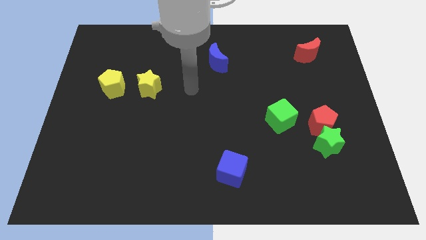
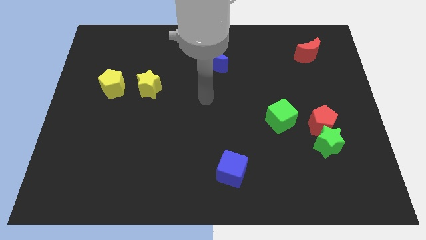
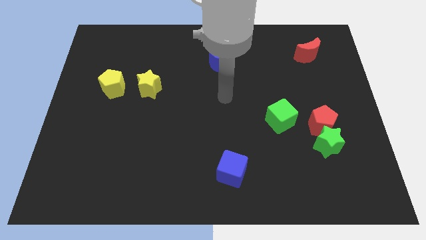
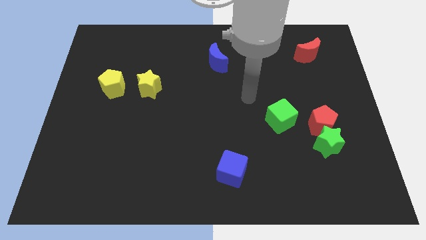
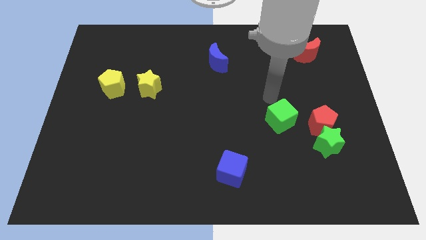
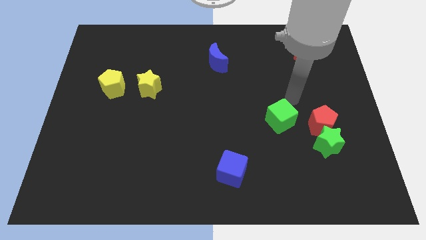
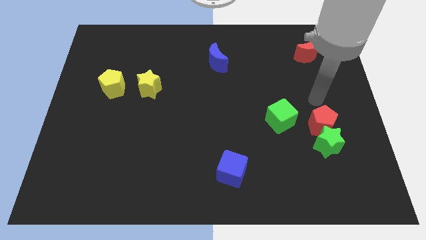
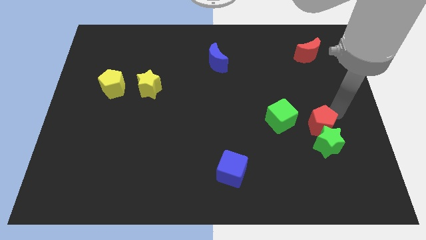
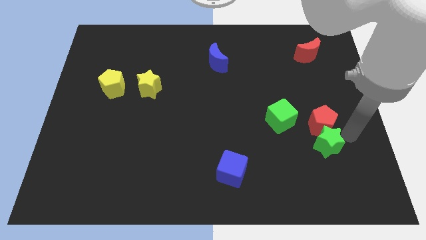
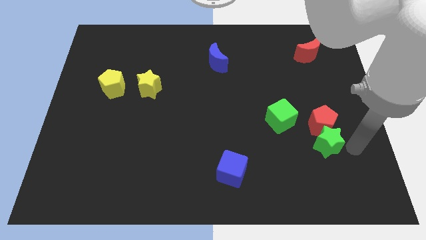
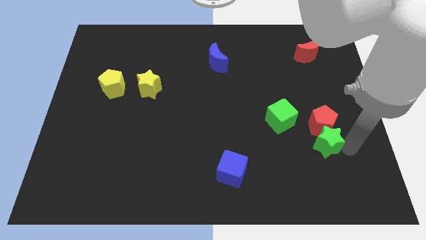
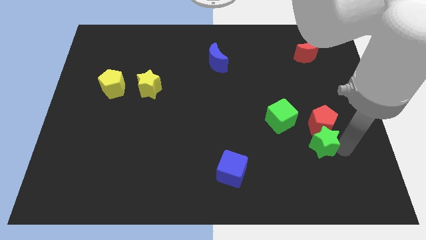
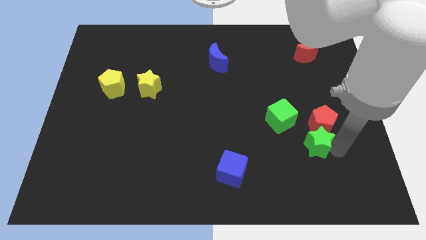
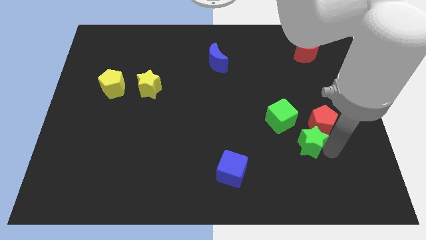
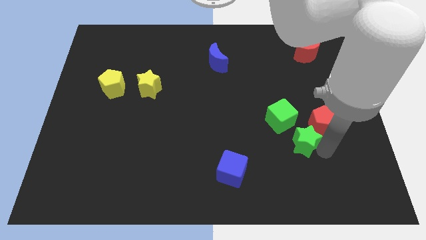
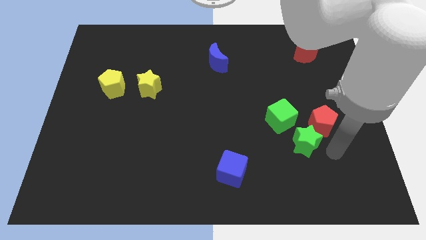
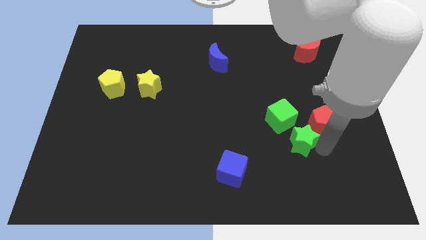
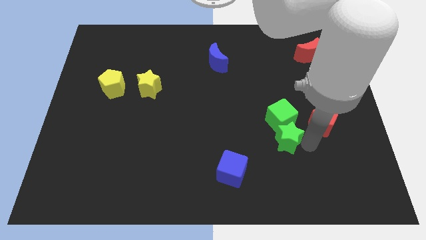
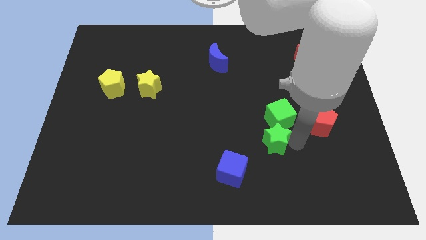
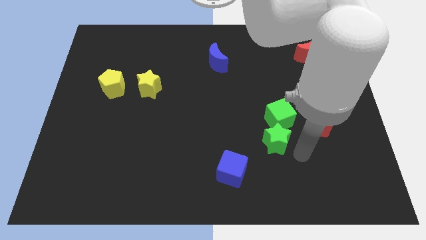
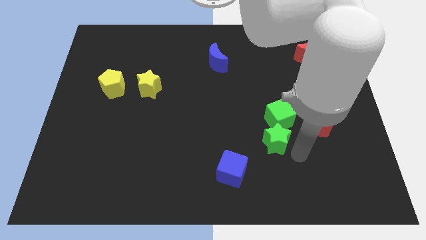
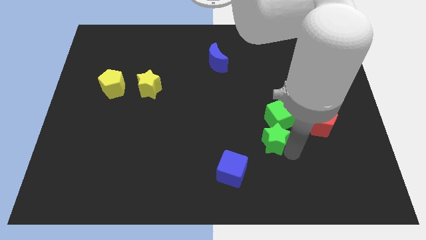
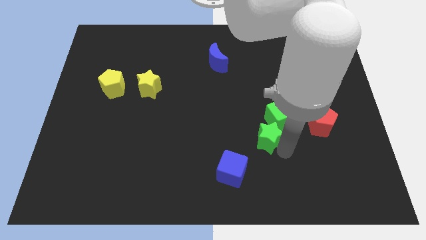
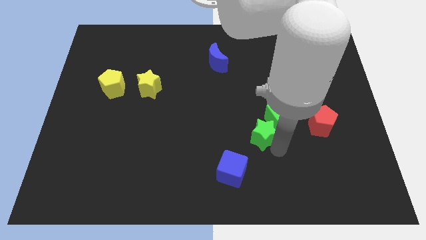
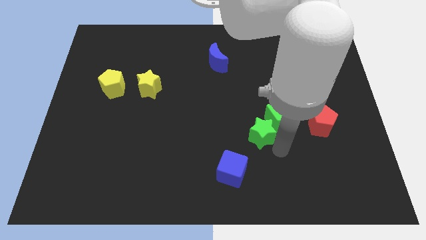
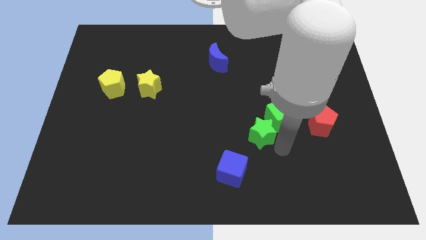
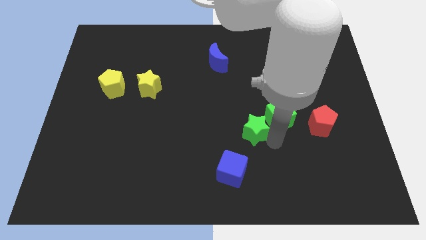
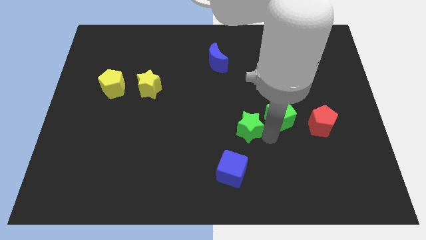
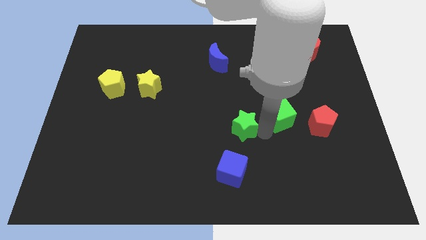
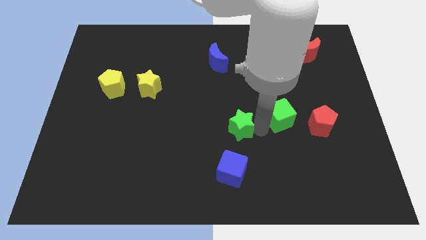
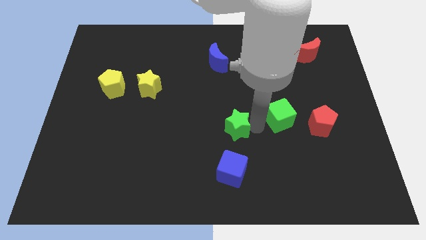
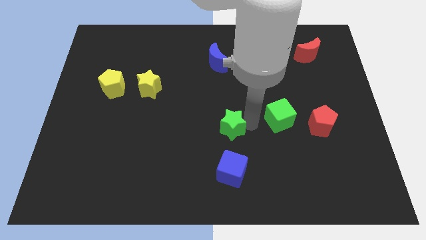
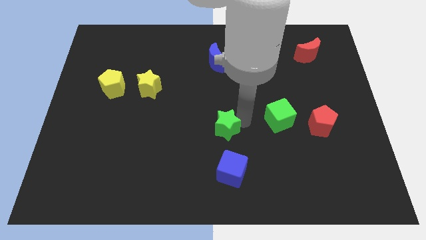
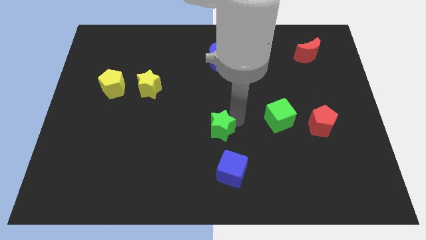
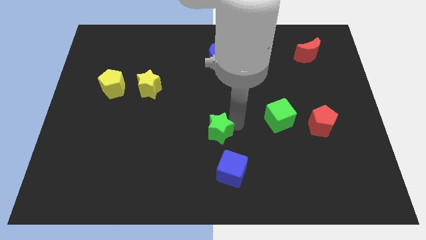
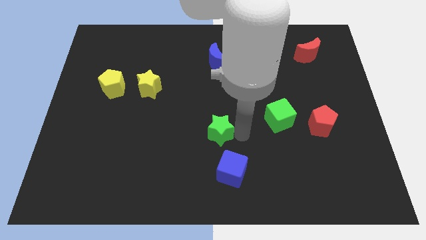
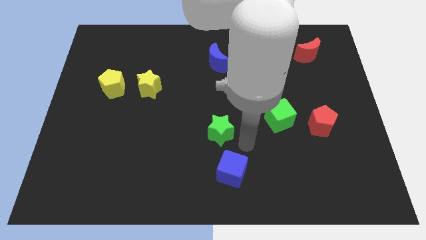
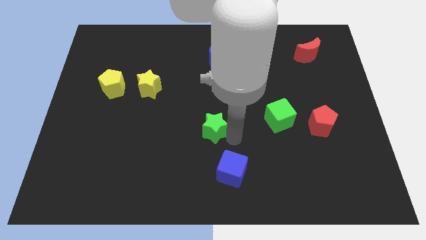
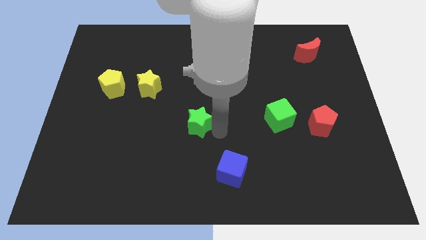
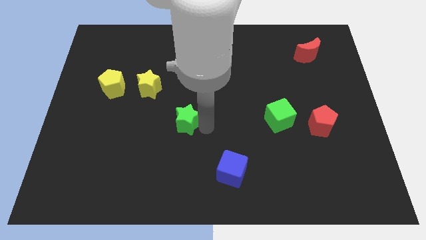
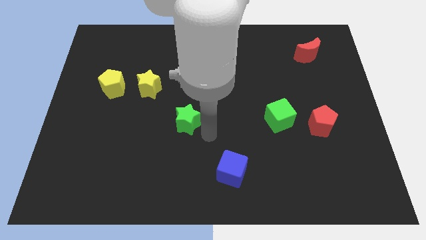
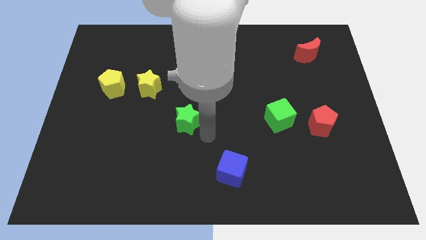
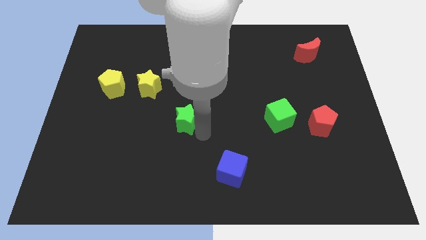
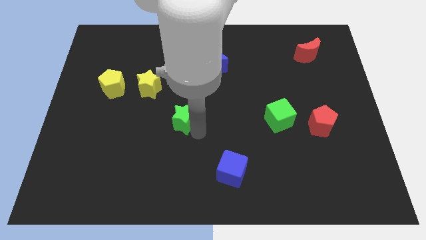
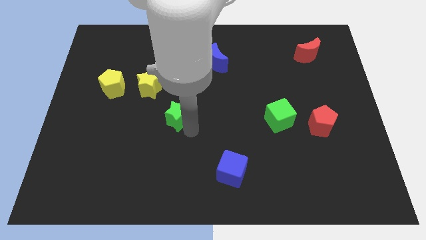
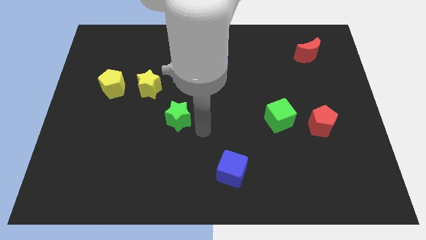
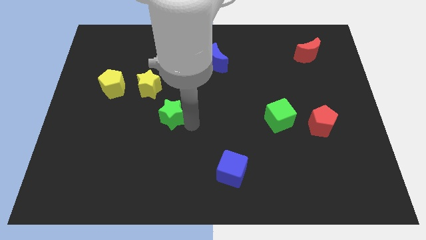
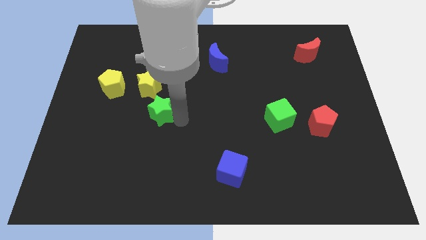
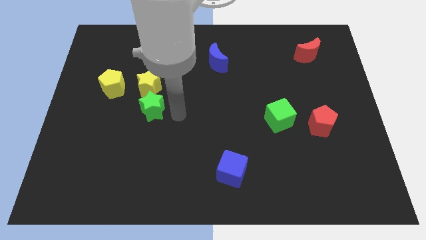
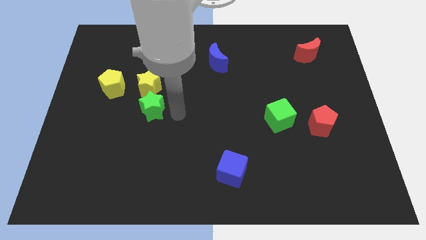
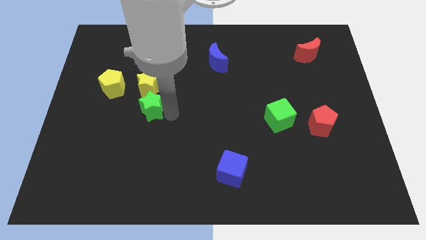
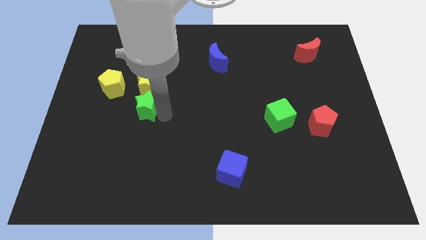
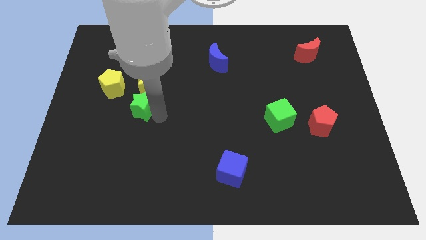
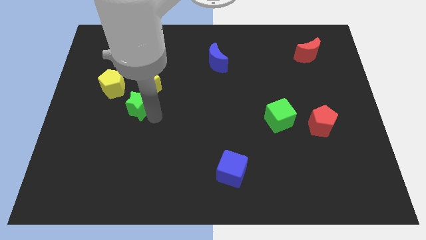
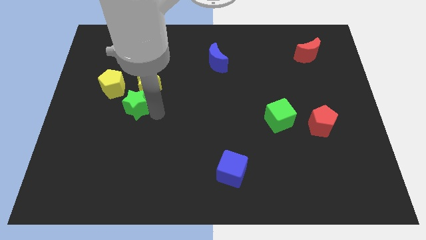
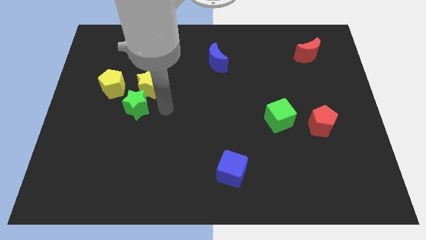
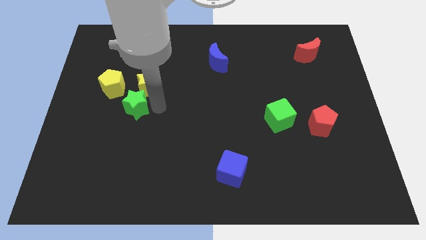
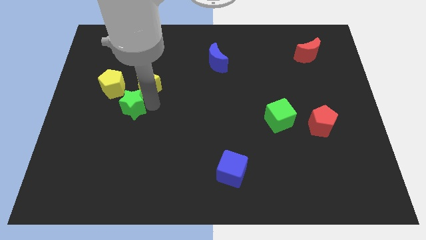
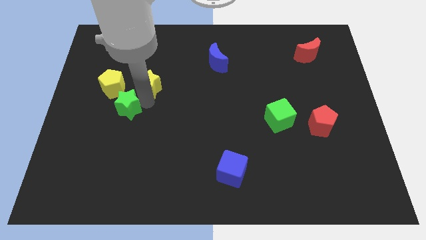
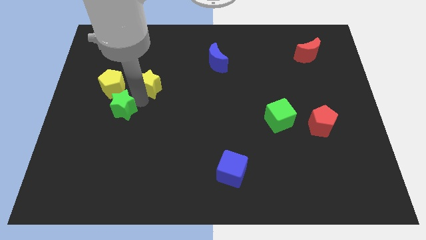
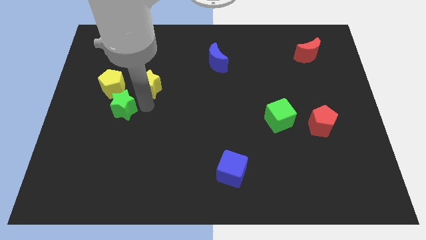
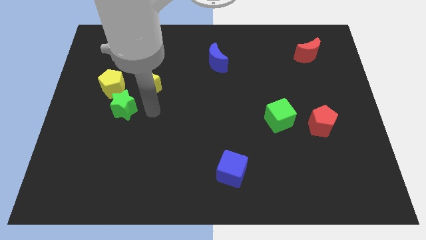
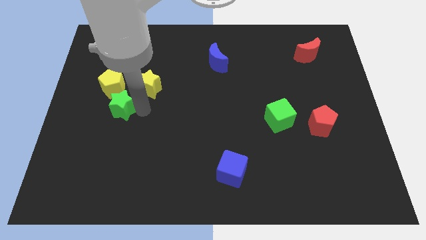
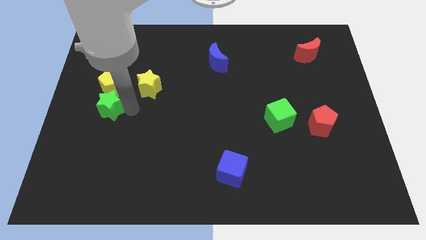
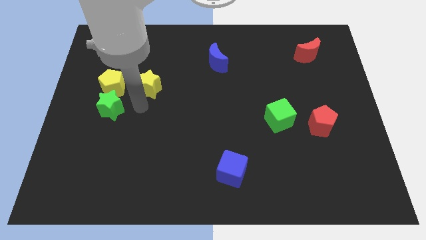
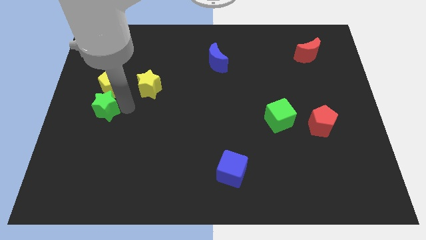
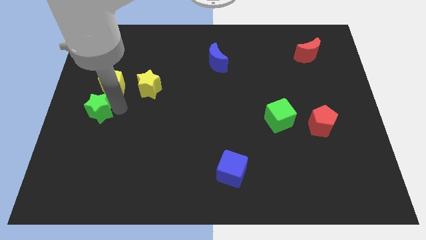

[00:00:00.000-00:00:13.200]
move the green star to the left side of the board
